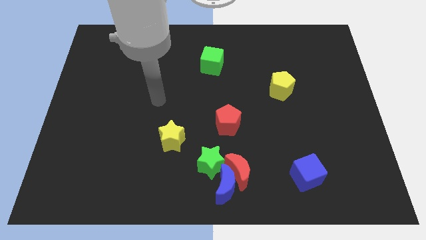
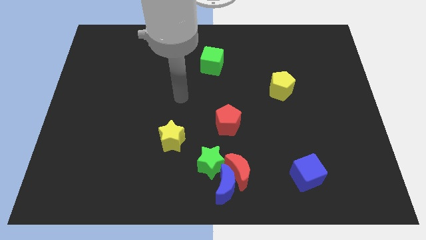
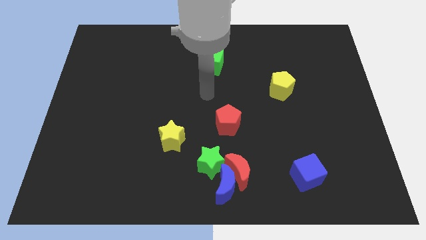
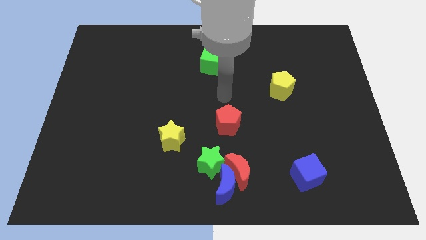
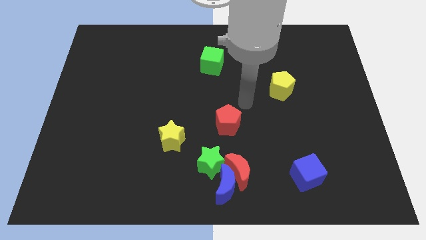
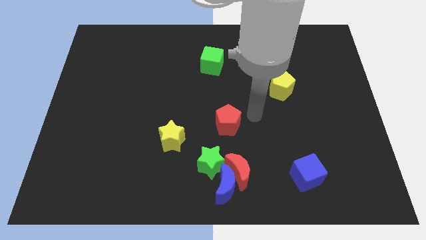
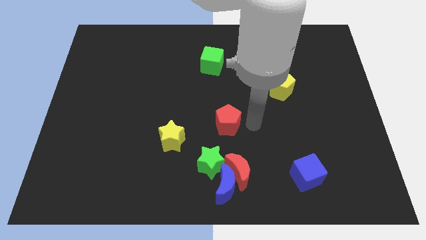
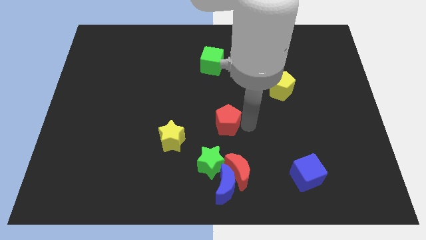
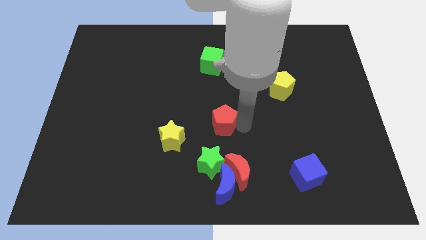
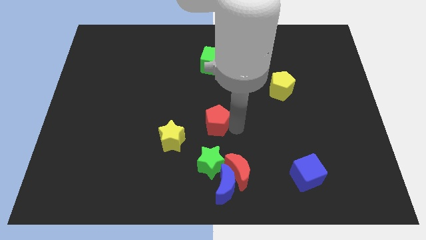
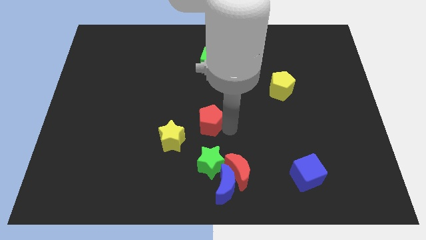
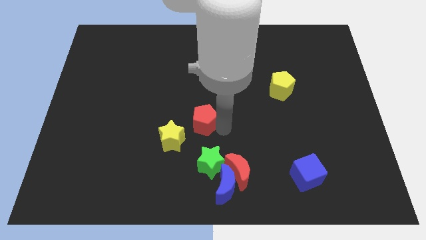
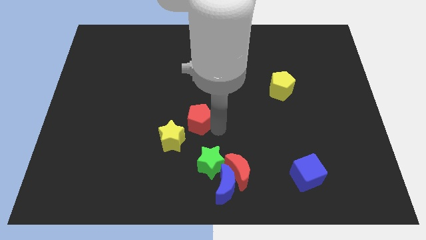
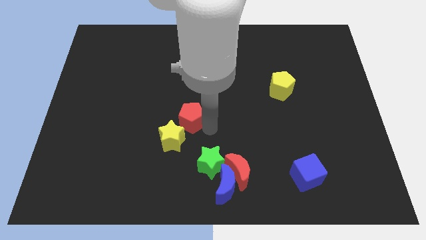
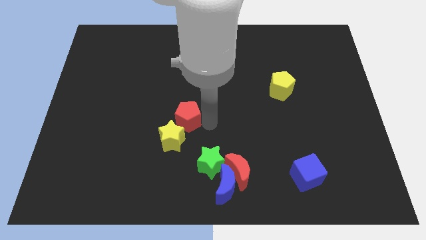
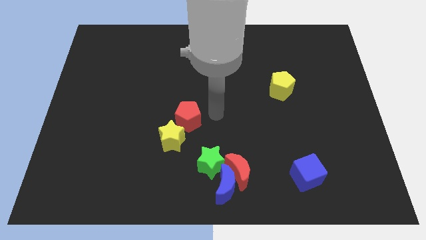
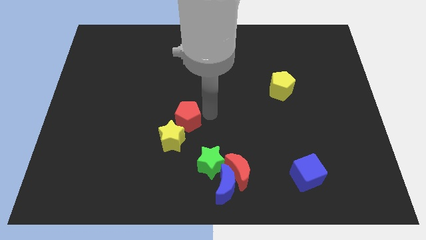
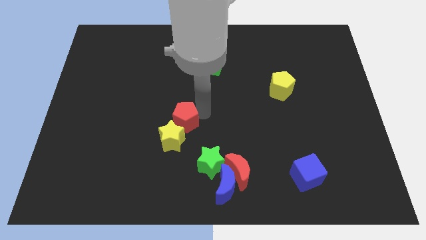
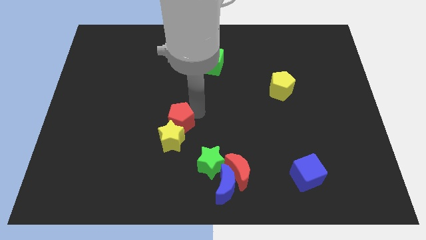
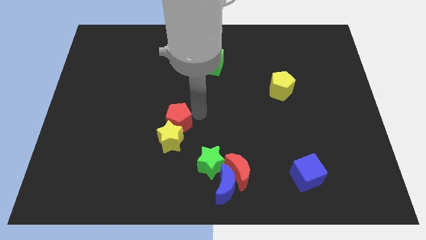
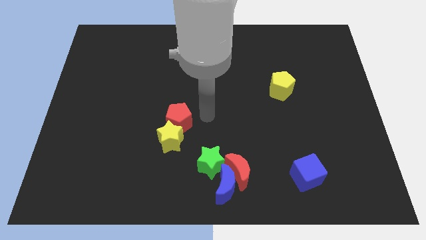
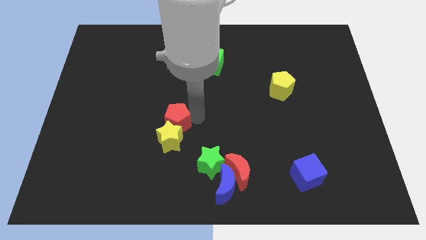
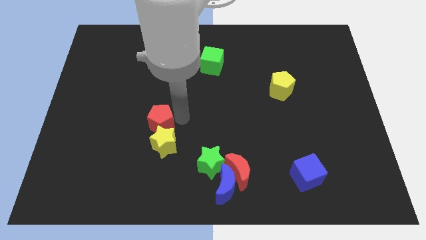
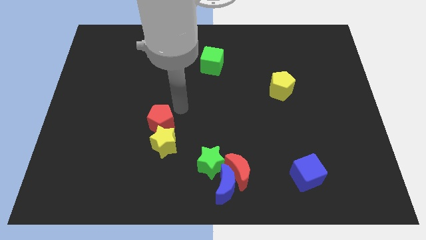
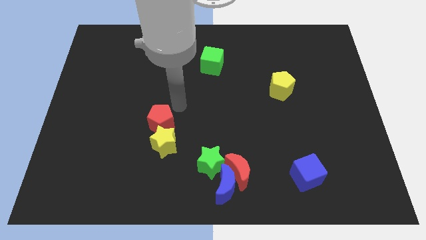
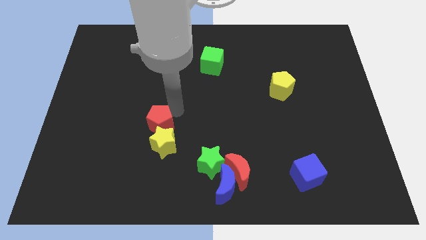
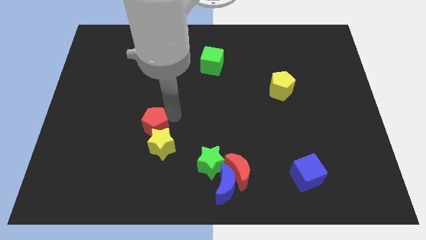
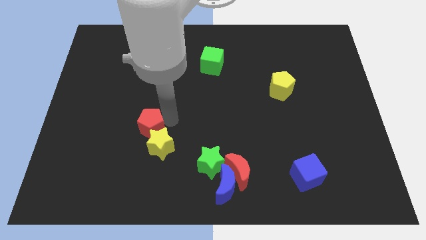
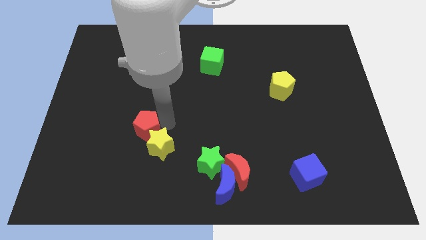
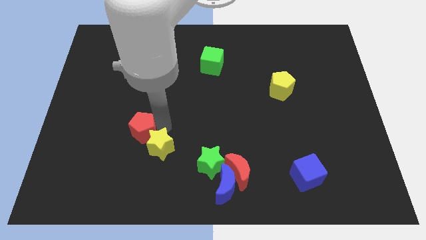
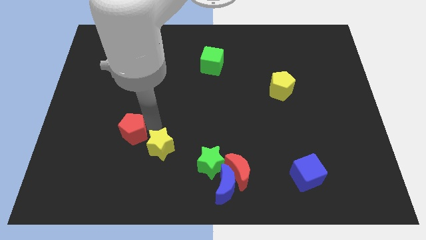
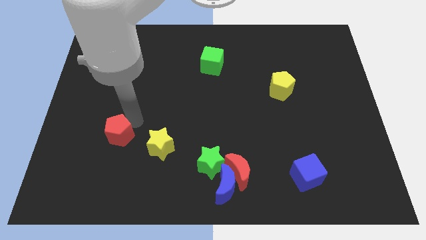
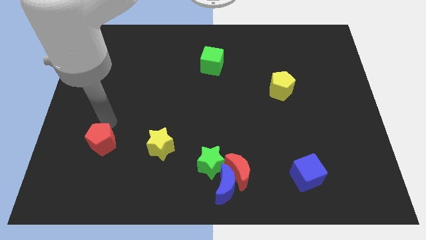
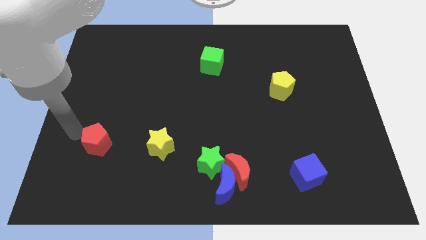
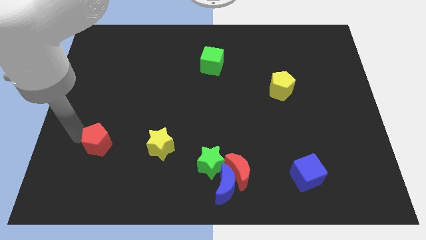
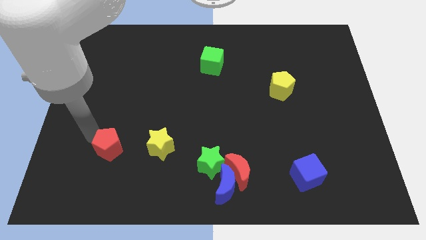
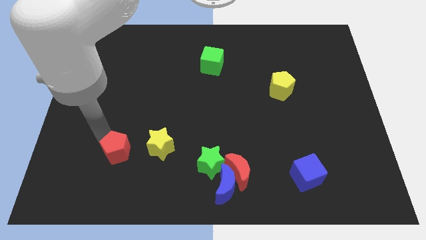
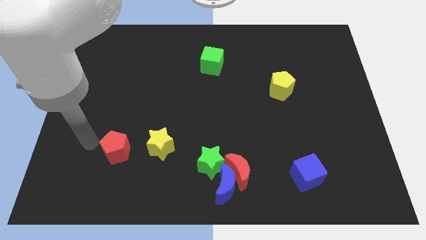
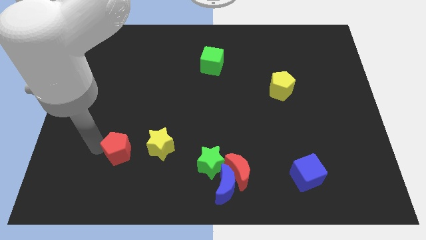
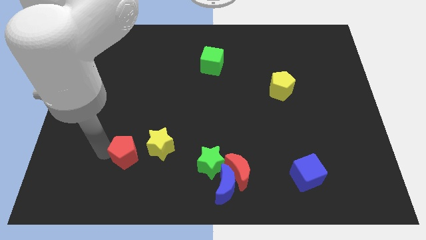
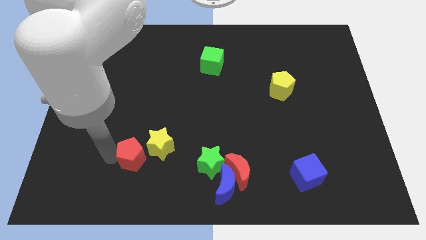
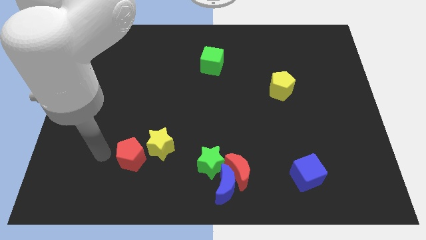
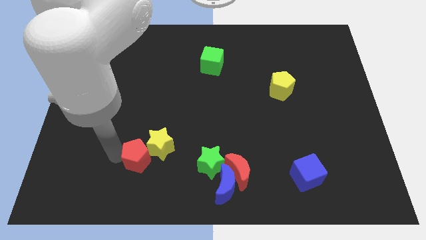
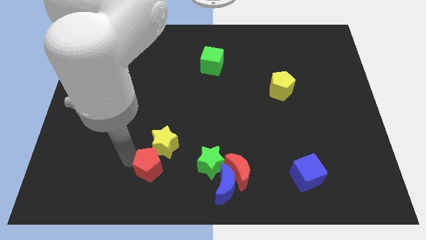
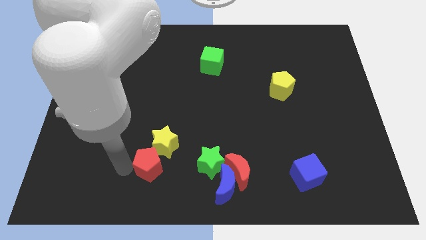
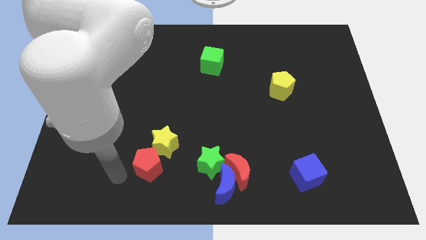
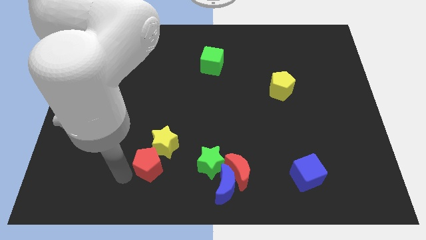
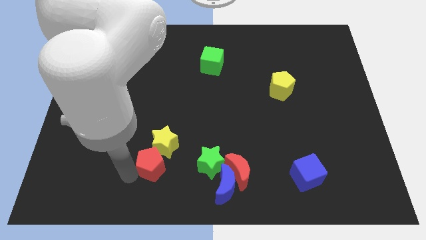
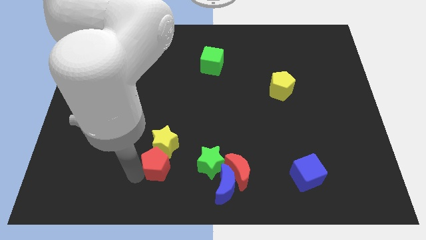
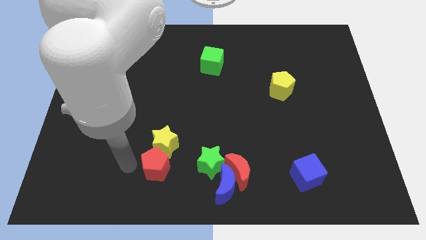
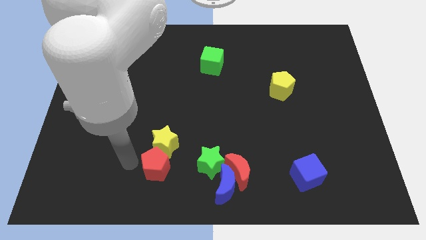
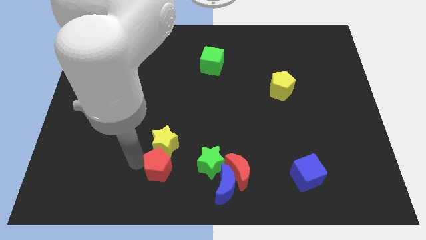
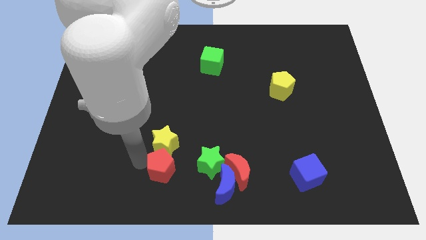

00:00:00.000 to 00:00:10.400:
put the red pentagon just left of the red moon

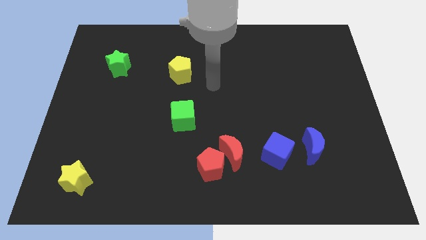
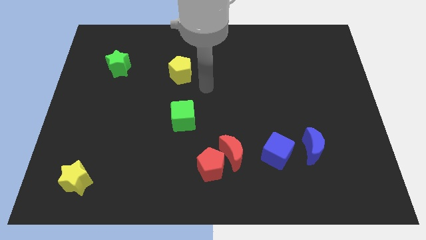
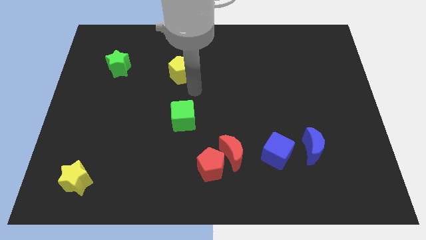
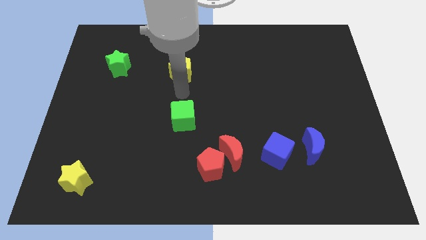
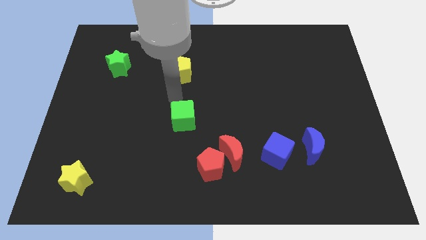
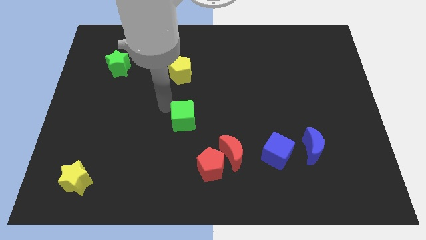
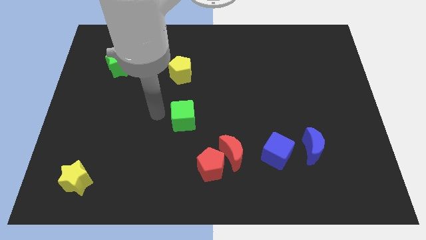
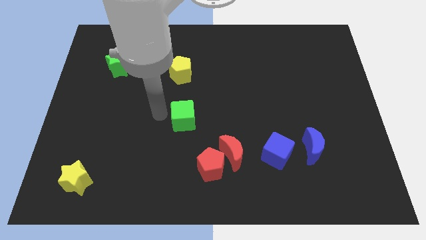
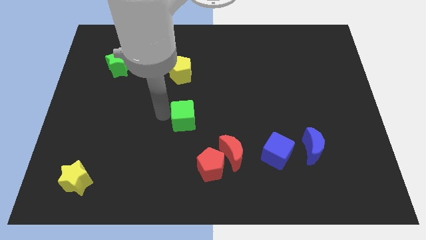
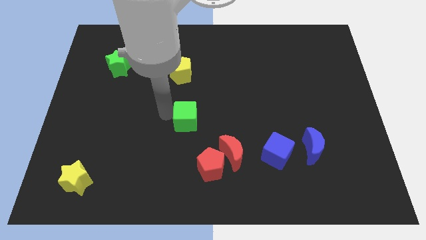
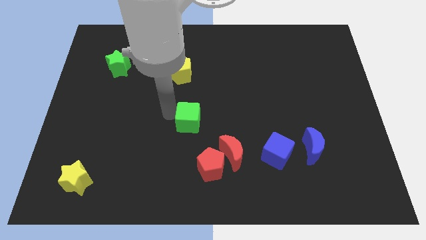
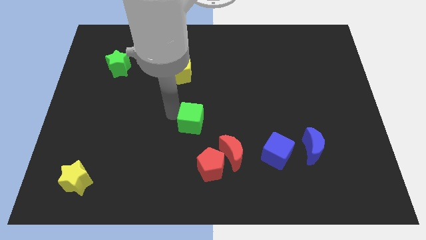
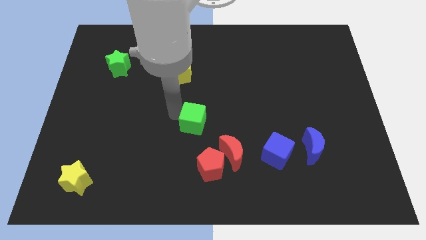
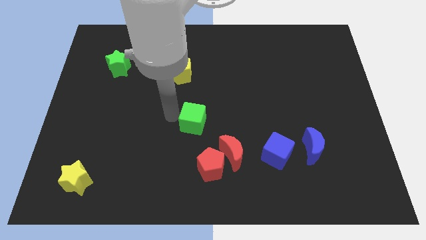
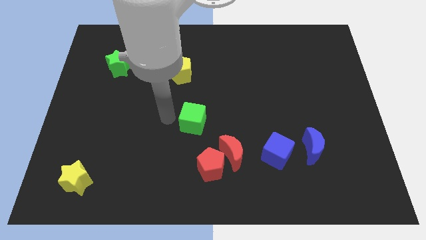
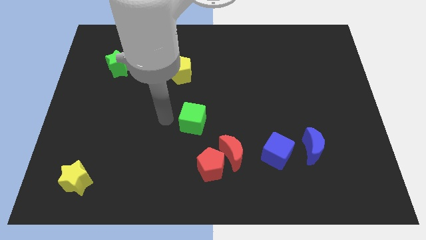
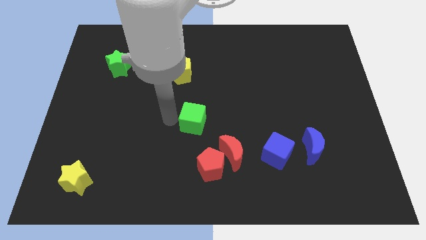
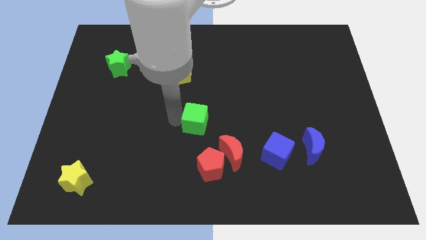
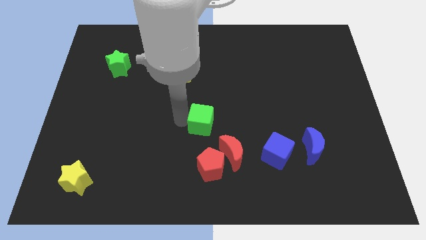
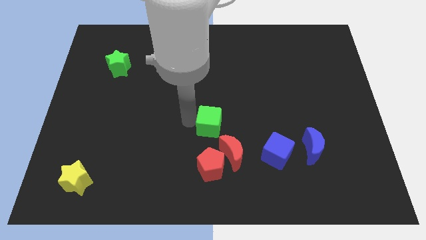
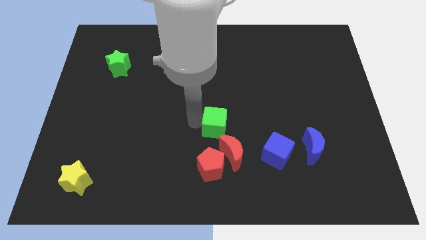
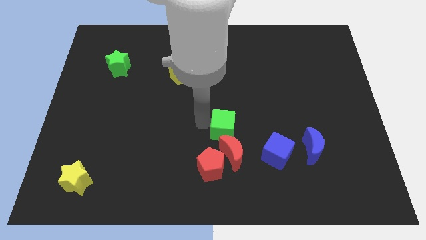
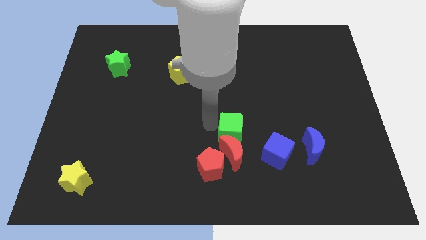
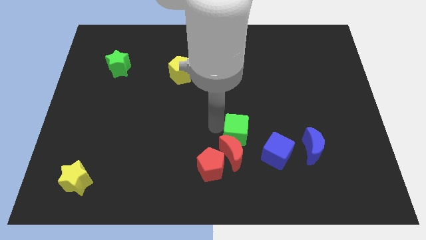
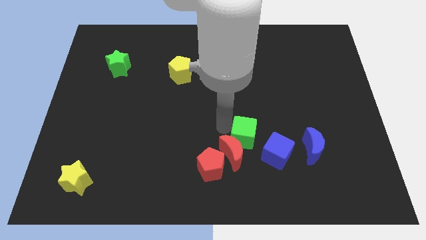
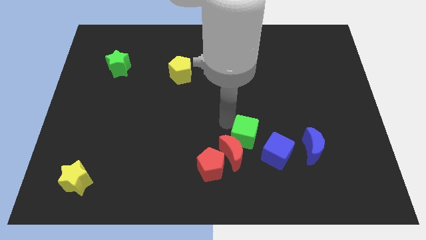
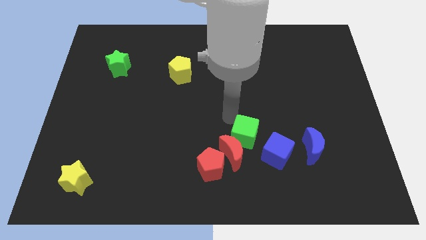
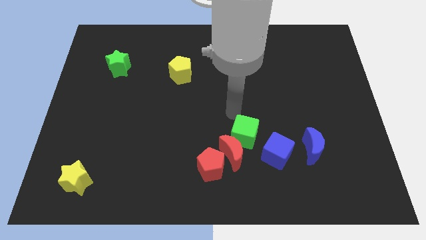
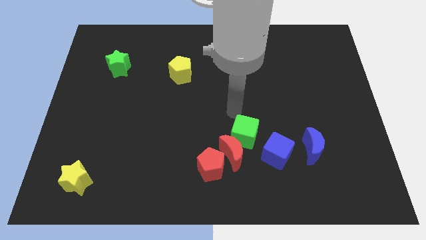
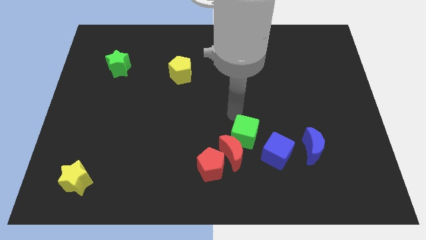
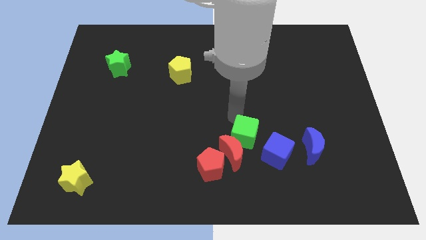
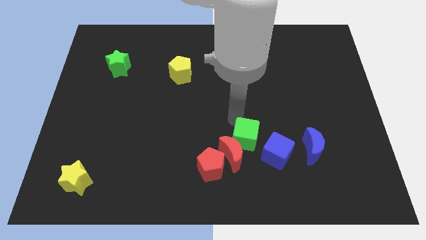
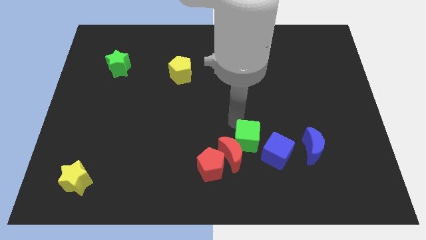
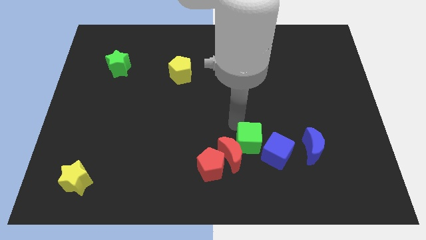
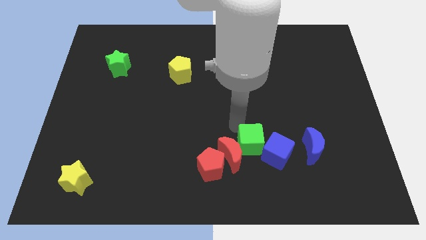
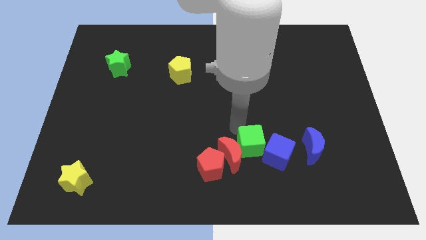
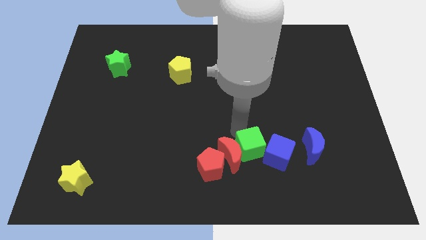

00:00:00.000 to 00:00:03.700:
move the green cube diagonally down and to the right of the red moon
